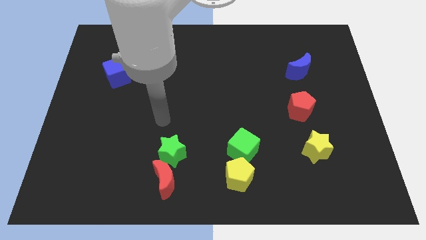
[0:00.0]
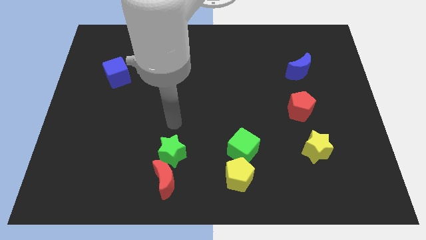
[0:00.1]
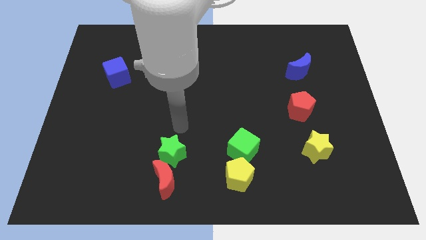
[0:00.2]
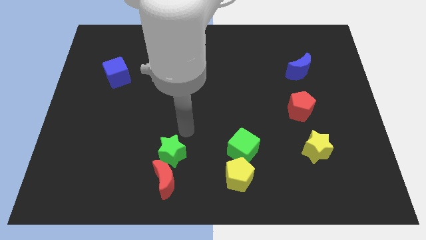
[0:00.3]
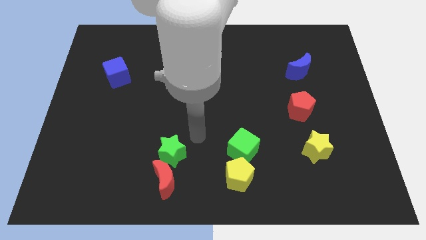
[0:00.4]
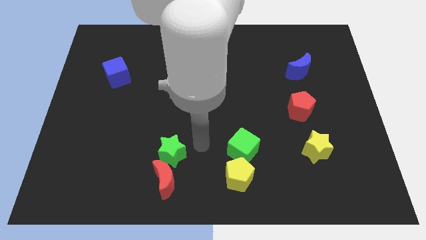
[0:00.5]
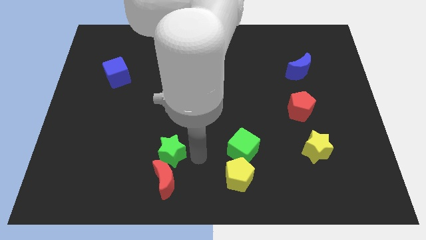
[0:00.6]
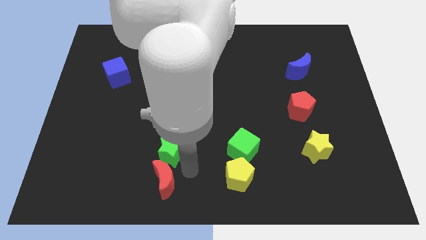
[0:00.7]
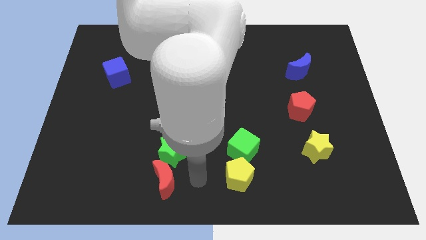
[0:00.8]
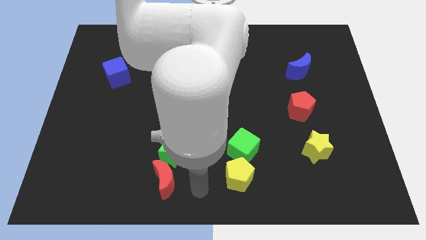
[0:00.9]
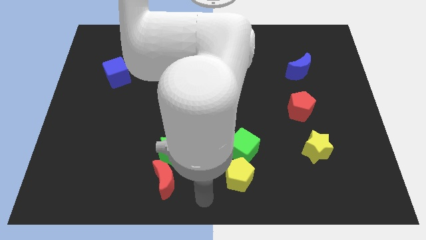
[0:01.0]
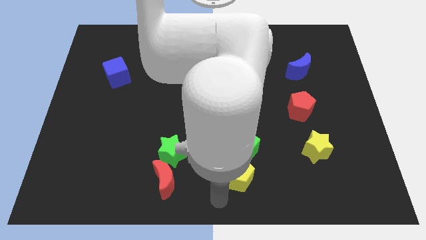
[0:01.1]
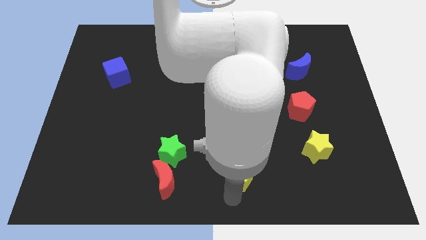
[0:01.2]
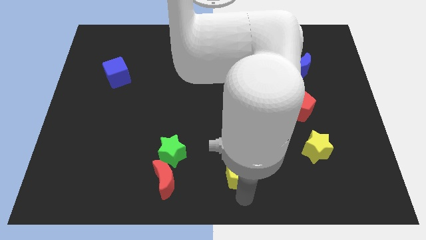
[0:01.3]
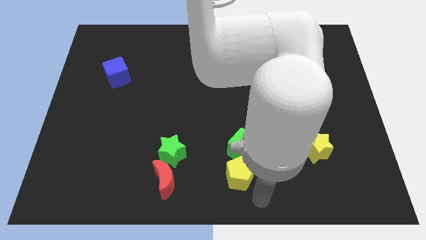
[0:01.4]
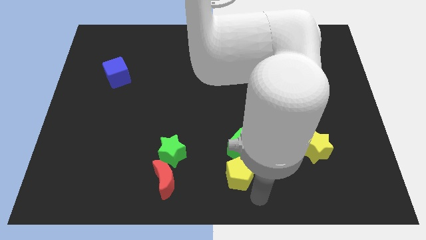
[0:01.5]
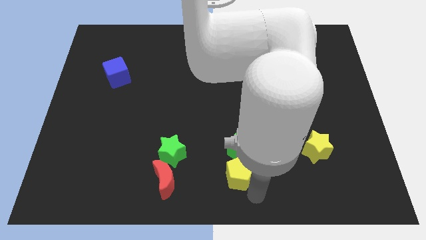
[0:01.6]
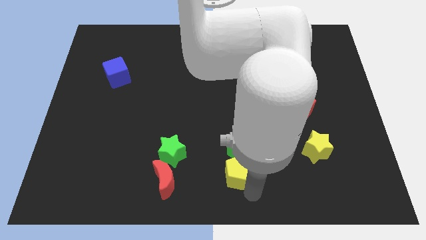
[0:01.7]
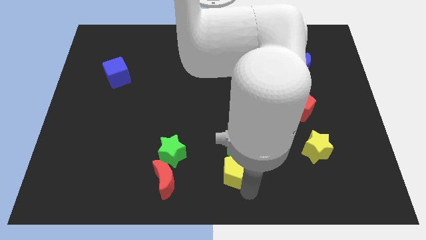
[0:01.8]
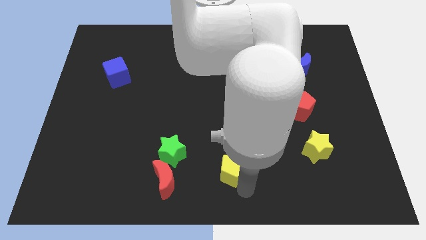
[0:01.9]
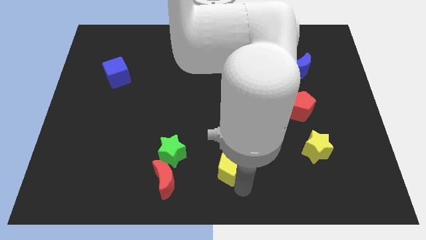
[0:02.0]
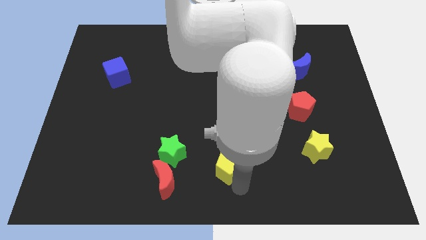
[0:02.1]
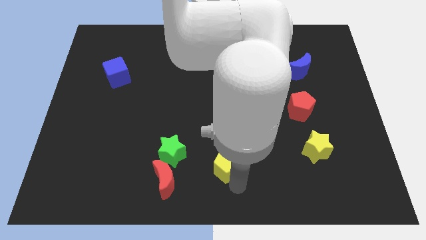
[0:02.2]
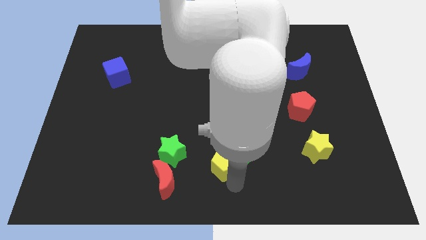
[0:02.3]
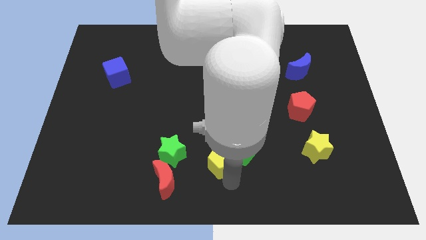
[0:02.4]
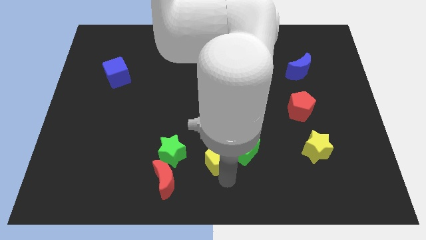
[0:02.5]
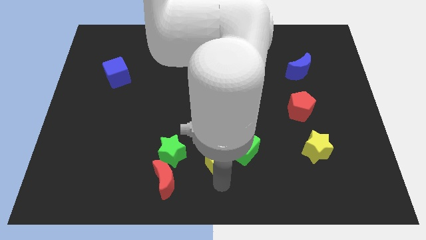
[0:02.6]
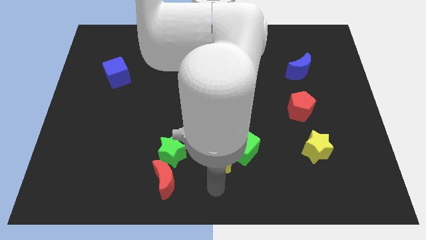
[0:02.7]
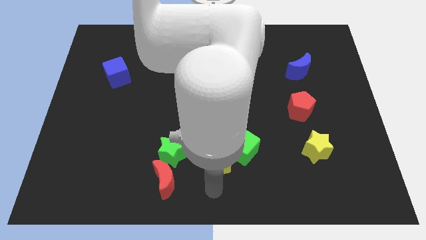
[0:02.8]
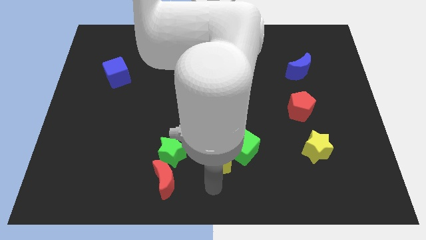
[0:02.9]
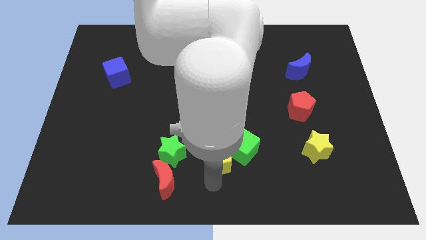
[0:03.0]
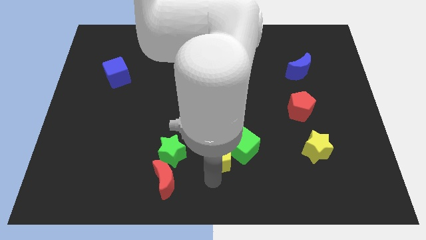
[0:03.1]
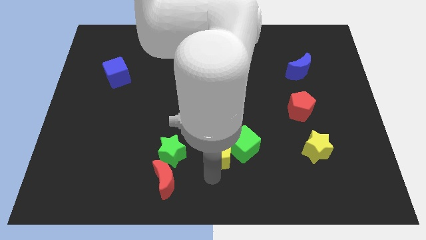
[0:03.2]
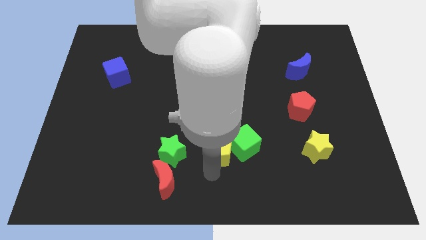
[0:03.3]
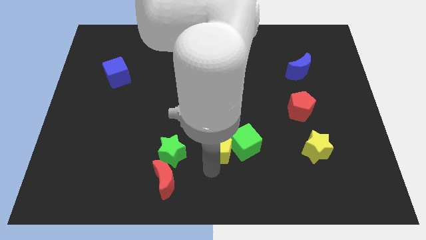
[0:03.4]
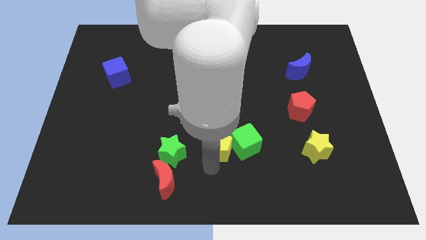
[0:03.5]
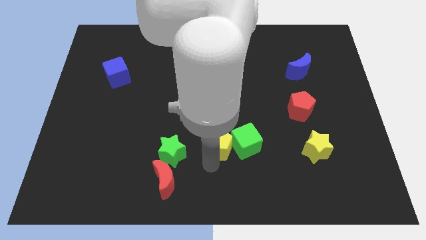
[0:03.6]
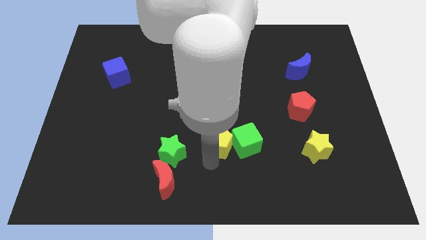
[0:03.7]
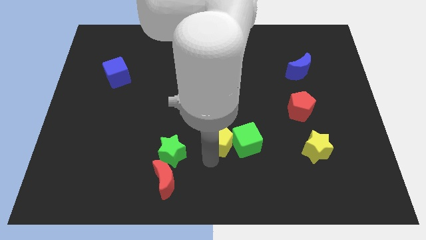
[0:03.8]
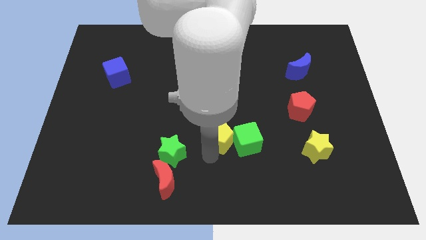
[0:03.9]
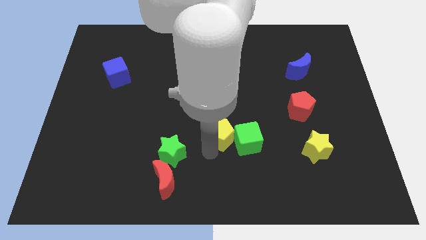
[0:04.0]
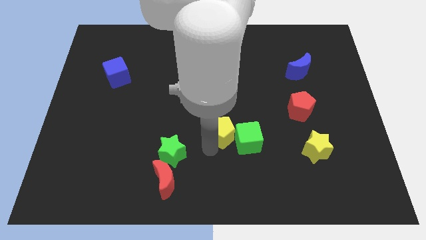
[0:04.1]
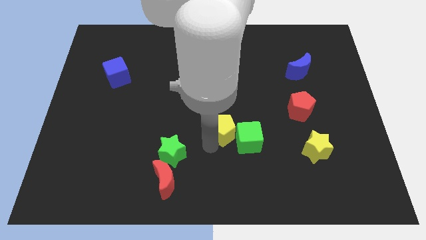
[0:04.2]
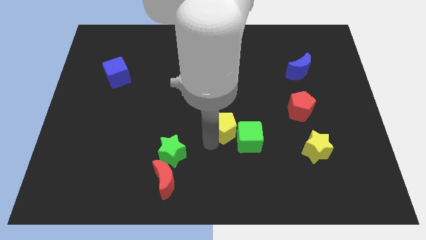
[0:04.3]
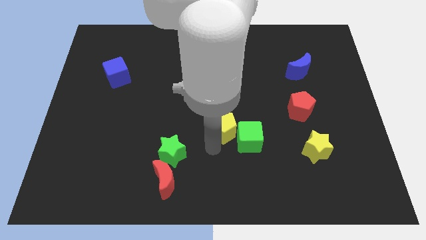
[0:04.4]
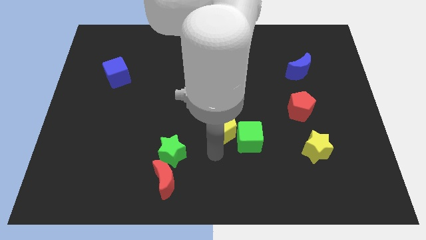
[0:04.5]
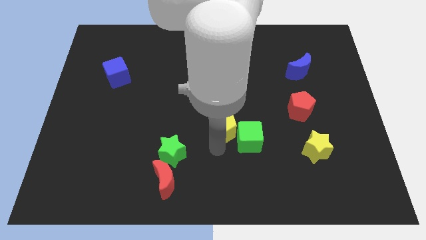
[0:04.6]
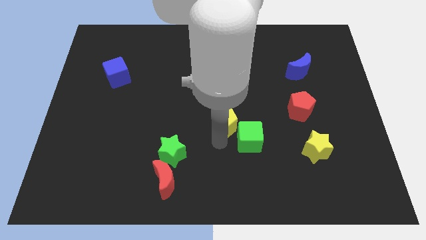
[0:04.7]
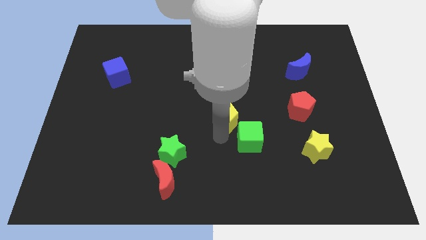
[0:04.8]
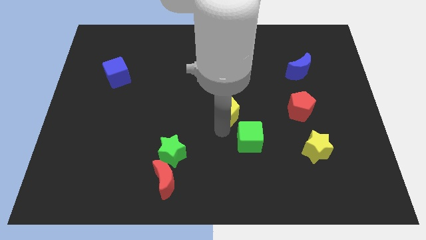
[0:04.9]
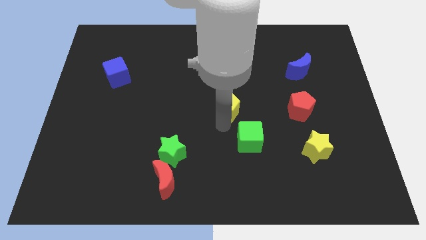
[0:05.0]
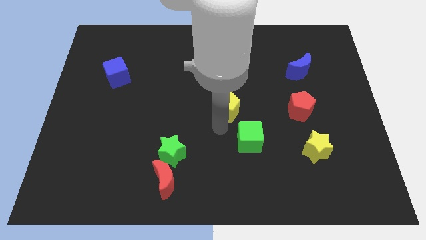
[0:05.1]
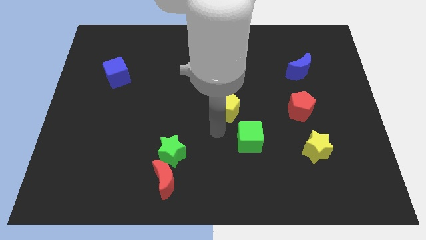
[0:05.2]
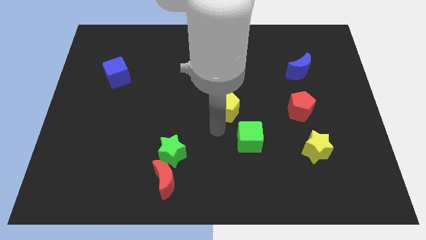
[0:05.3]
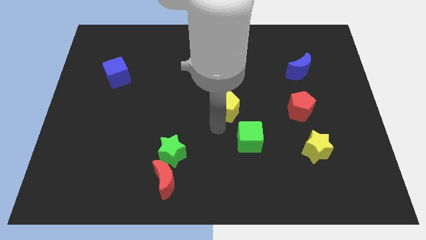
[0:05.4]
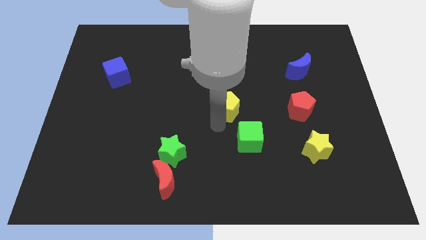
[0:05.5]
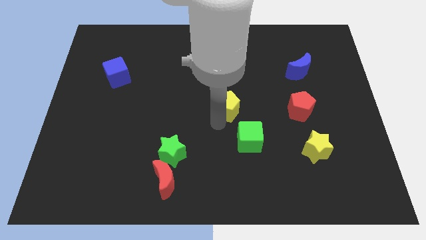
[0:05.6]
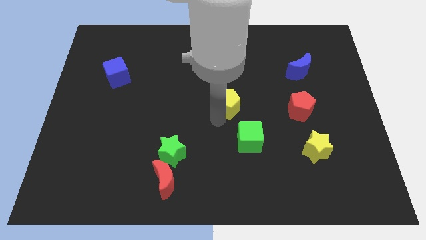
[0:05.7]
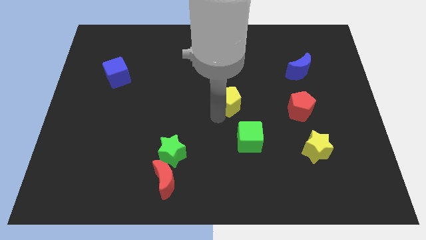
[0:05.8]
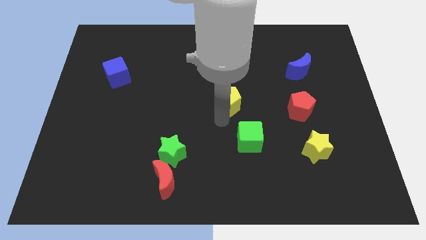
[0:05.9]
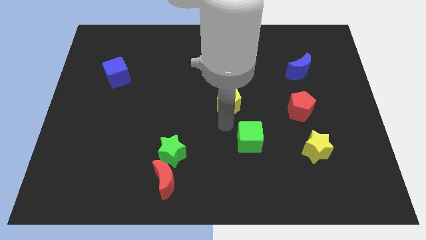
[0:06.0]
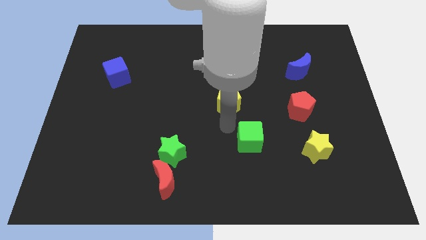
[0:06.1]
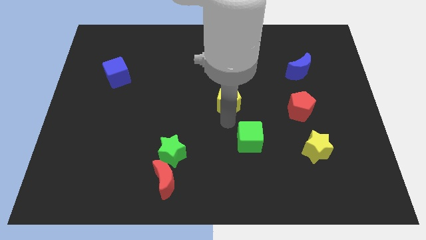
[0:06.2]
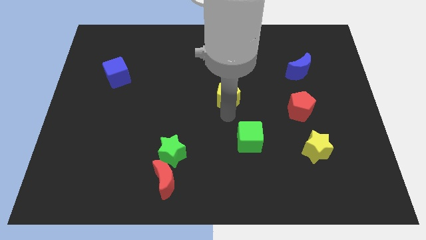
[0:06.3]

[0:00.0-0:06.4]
push the yellow pentagon up

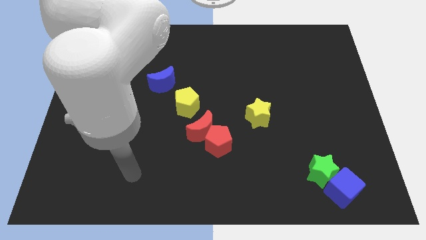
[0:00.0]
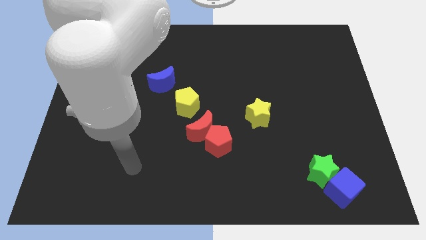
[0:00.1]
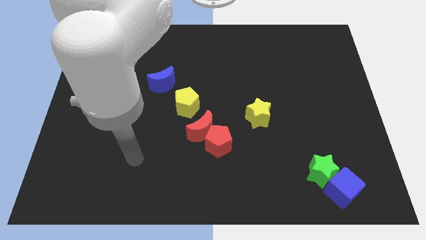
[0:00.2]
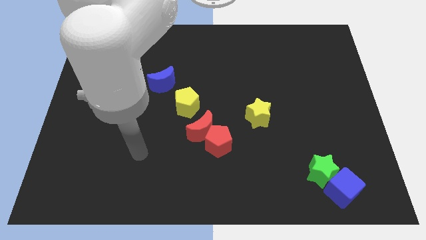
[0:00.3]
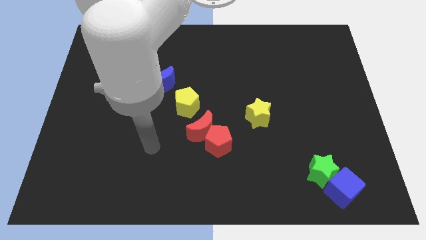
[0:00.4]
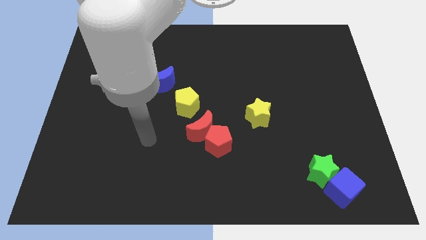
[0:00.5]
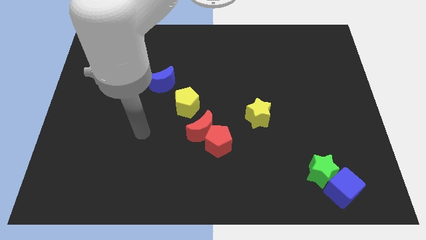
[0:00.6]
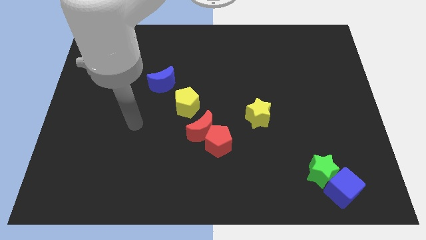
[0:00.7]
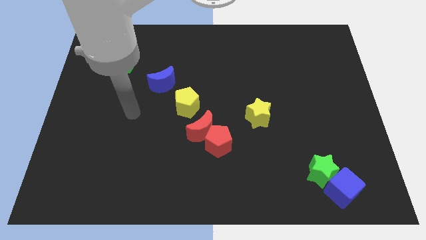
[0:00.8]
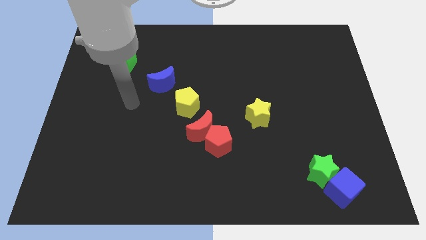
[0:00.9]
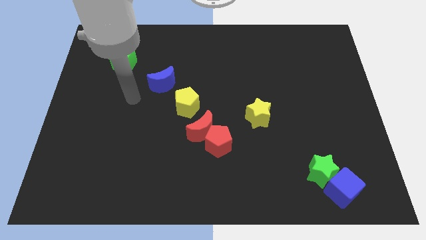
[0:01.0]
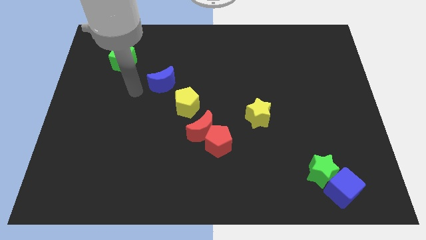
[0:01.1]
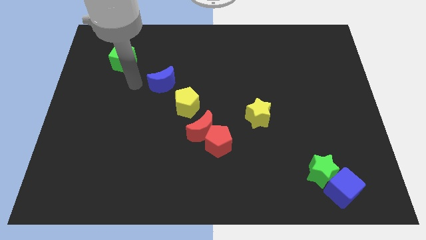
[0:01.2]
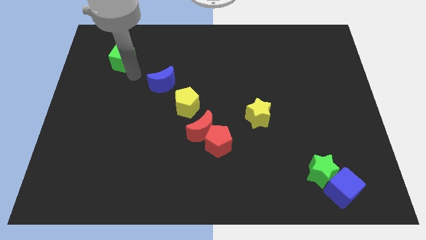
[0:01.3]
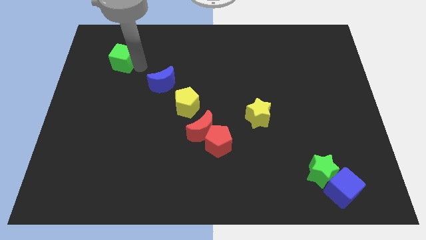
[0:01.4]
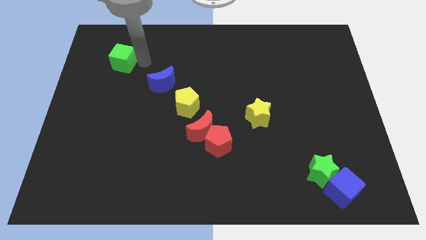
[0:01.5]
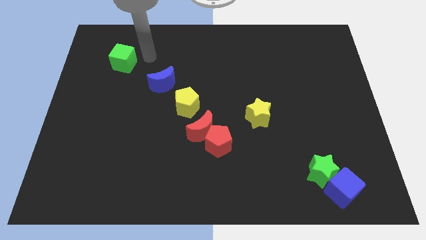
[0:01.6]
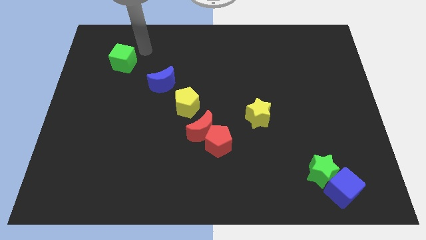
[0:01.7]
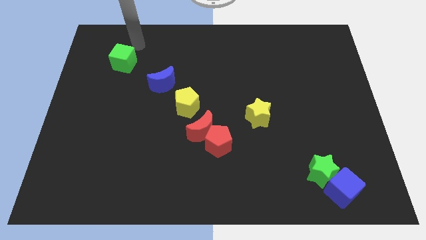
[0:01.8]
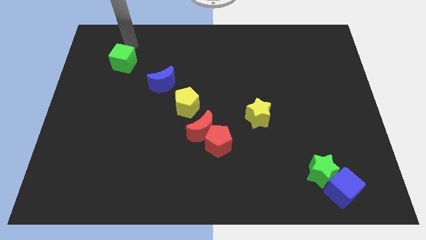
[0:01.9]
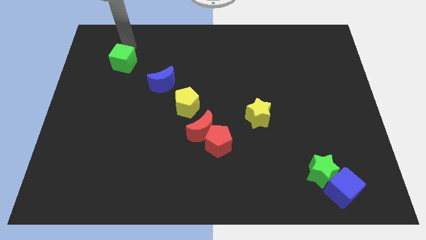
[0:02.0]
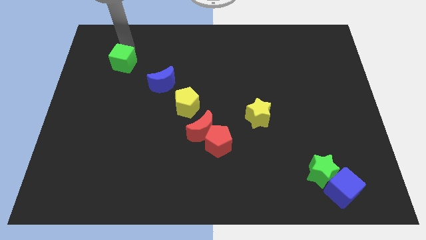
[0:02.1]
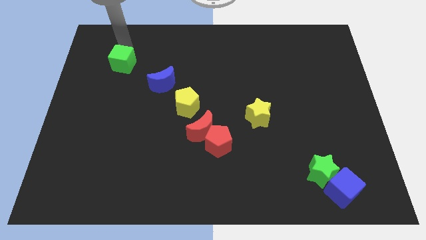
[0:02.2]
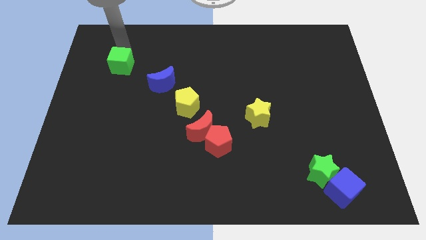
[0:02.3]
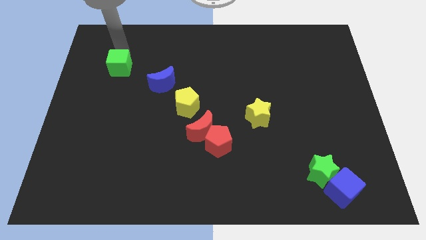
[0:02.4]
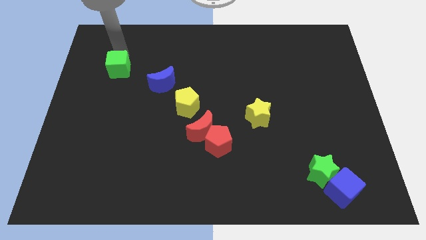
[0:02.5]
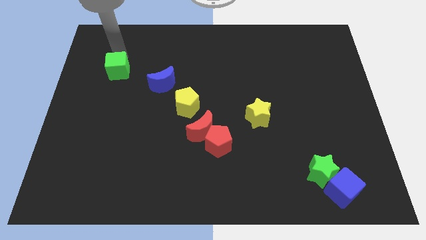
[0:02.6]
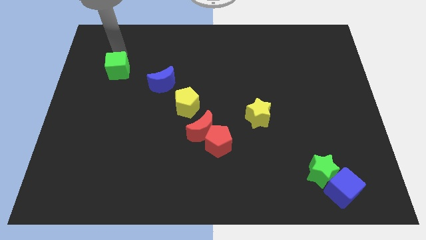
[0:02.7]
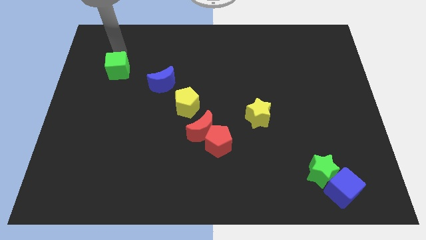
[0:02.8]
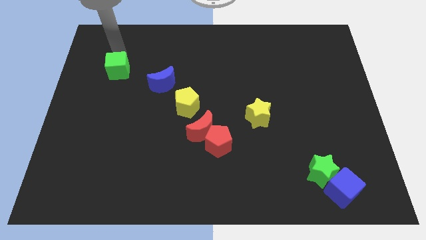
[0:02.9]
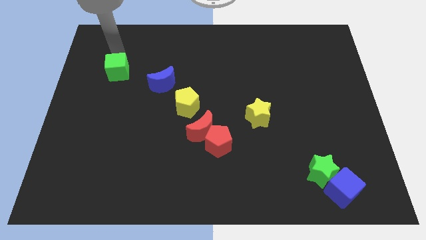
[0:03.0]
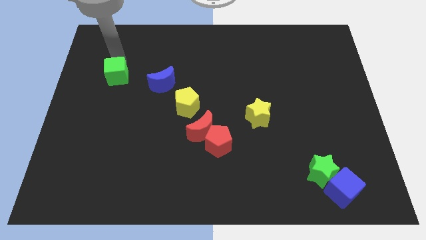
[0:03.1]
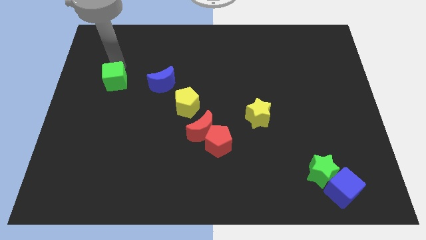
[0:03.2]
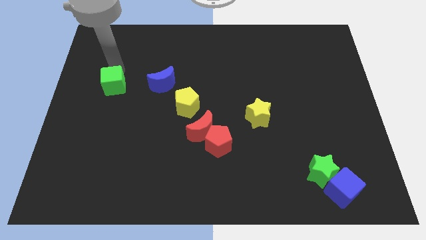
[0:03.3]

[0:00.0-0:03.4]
push the green cube downwards a little
